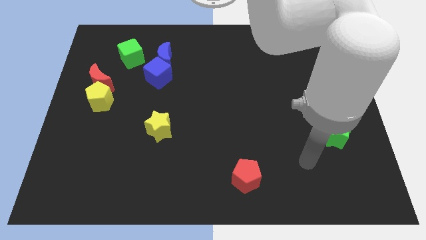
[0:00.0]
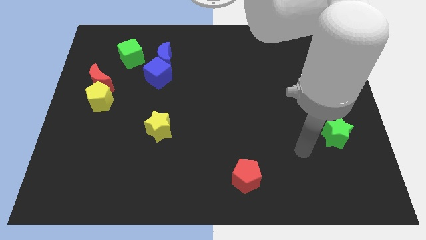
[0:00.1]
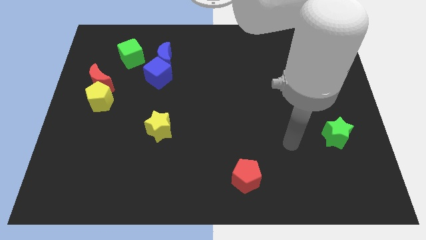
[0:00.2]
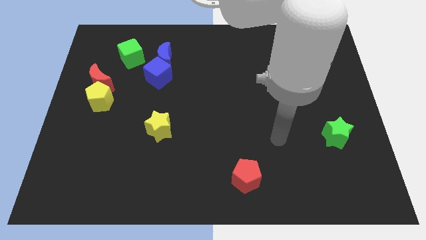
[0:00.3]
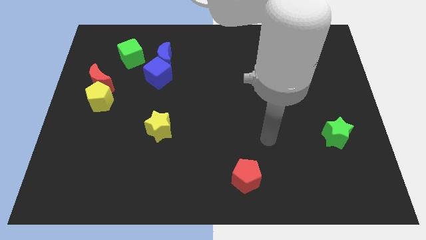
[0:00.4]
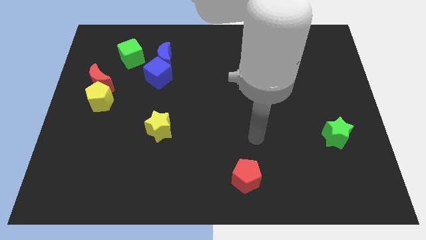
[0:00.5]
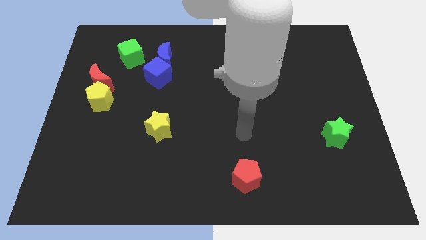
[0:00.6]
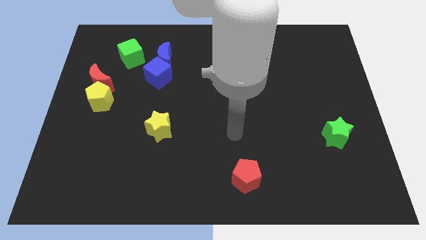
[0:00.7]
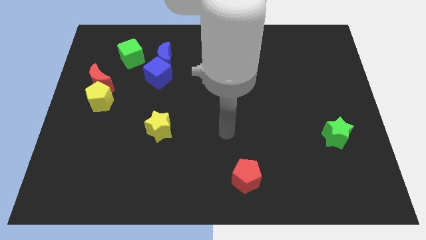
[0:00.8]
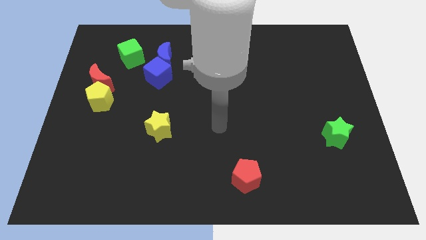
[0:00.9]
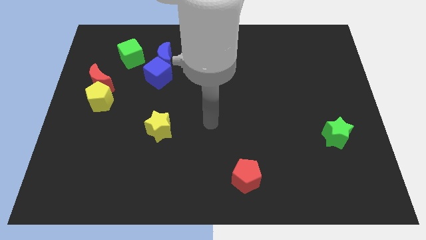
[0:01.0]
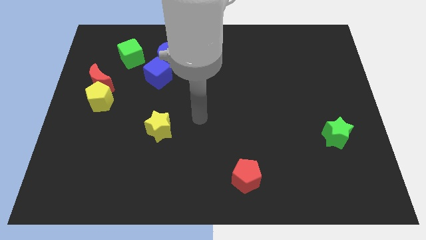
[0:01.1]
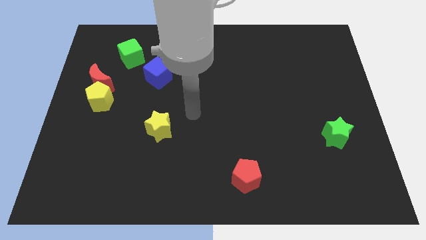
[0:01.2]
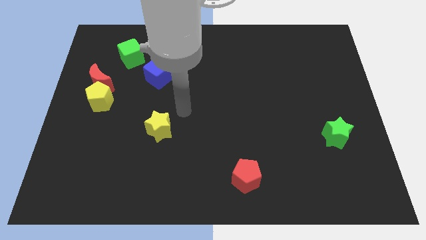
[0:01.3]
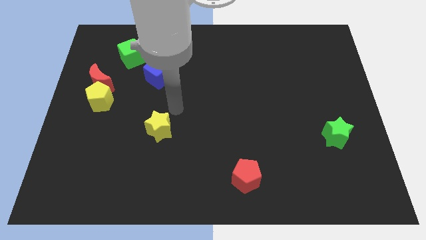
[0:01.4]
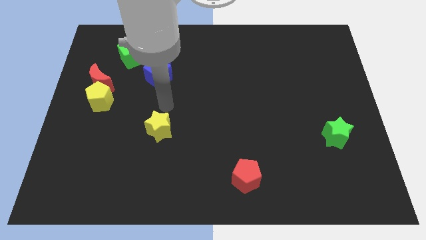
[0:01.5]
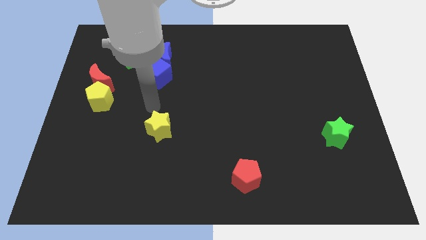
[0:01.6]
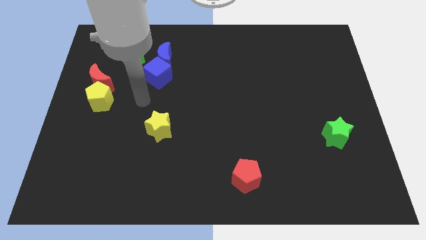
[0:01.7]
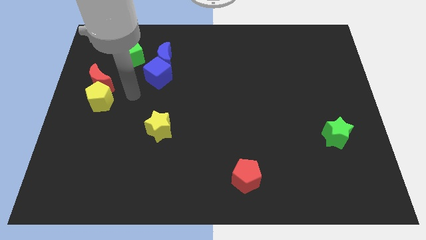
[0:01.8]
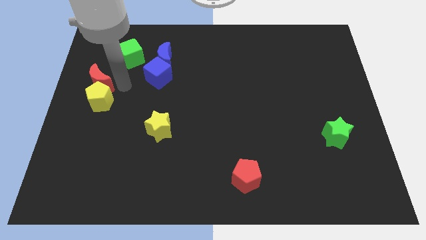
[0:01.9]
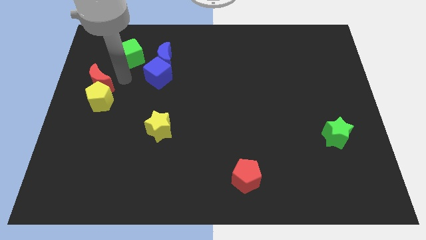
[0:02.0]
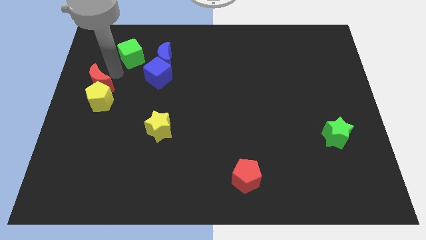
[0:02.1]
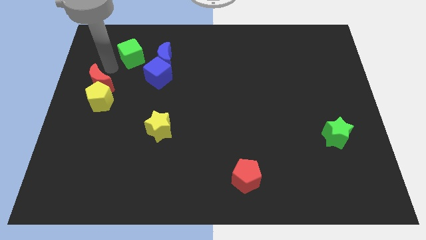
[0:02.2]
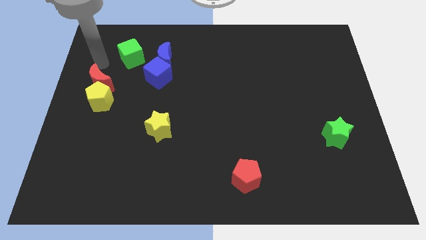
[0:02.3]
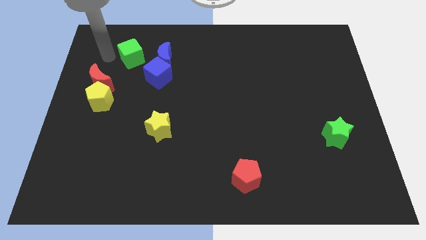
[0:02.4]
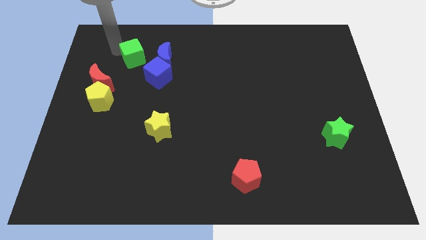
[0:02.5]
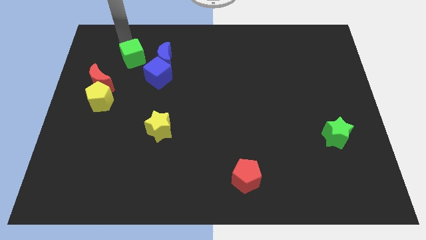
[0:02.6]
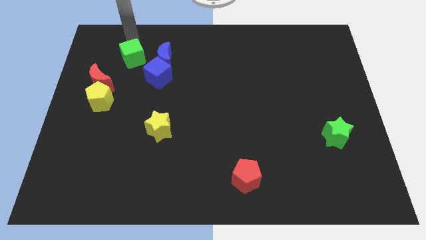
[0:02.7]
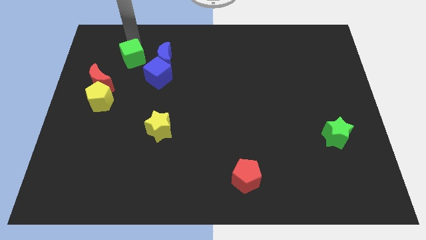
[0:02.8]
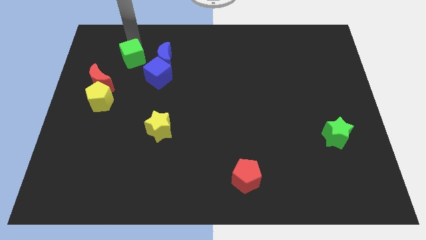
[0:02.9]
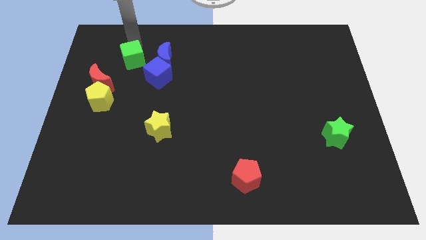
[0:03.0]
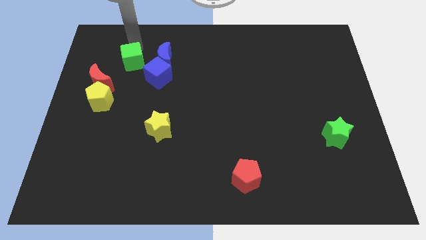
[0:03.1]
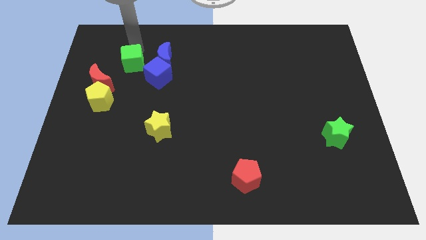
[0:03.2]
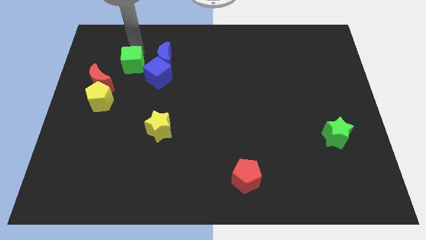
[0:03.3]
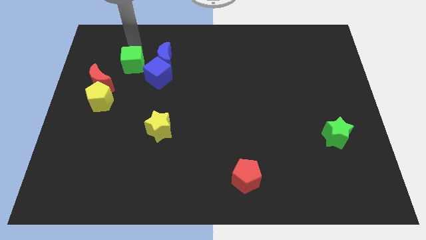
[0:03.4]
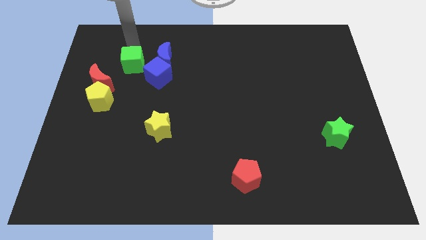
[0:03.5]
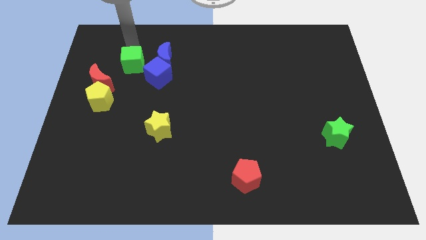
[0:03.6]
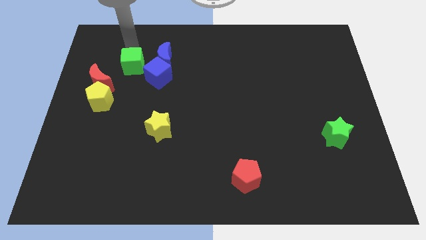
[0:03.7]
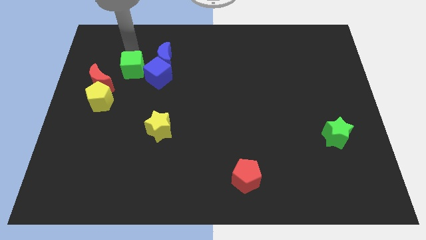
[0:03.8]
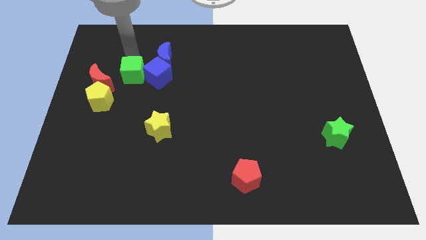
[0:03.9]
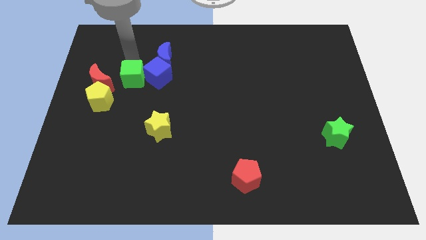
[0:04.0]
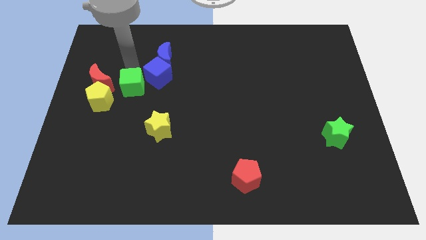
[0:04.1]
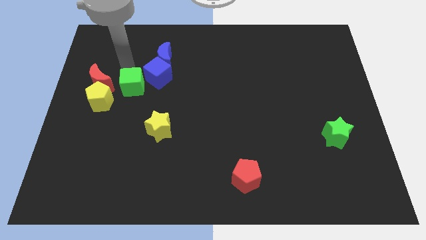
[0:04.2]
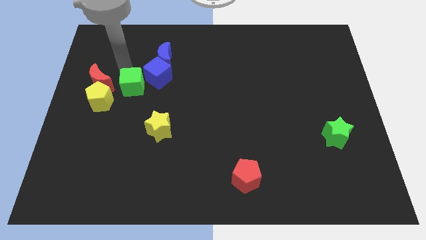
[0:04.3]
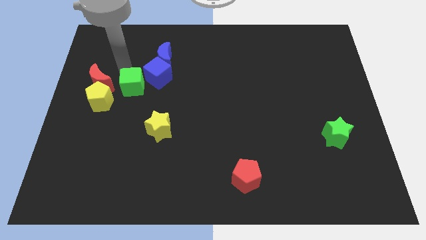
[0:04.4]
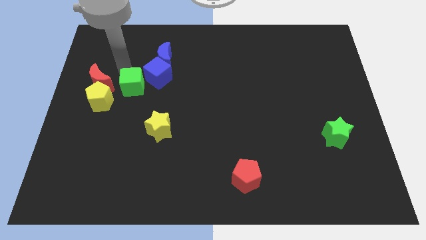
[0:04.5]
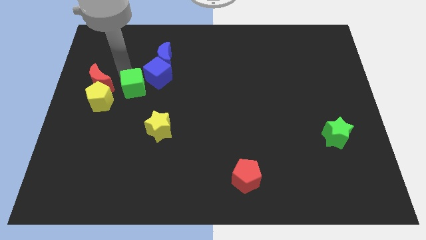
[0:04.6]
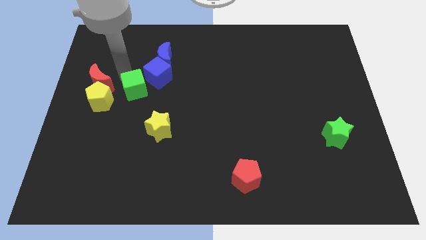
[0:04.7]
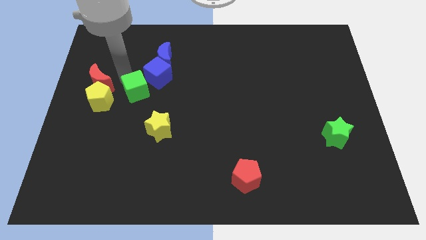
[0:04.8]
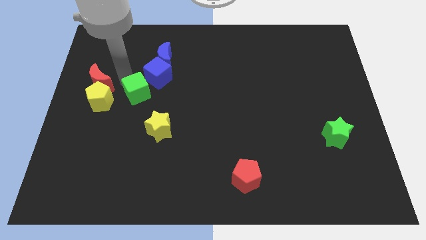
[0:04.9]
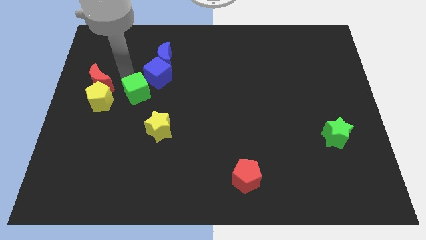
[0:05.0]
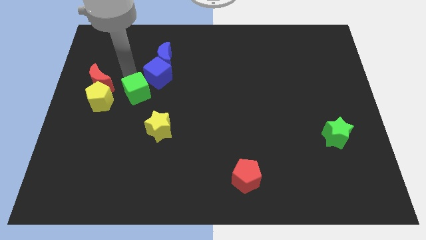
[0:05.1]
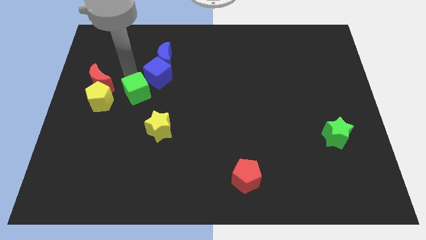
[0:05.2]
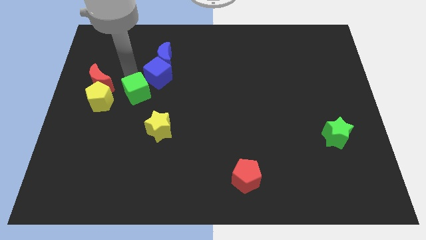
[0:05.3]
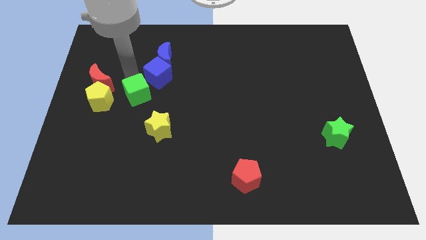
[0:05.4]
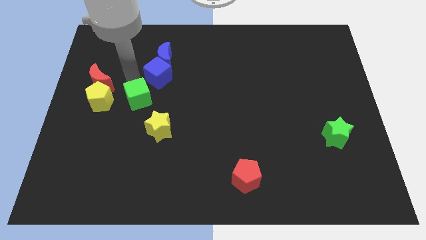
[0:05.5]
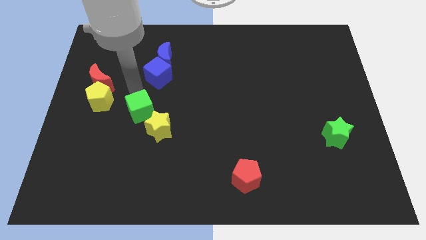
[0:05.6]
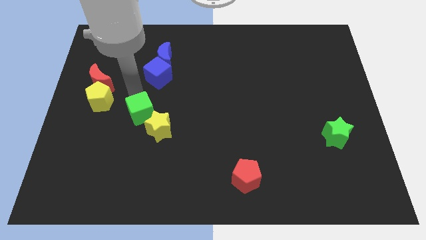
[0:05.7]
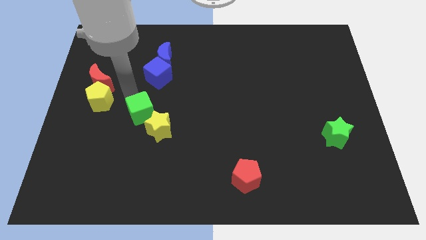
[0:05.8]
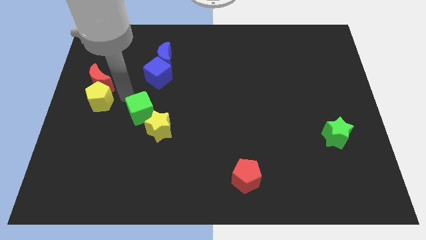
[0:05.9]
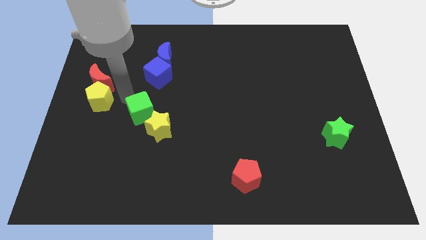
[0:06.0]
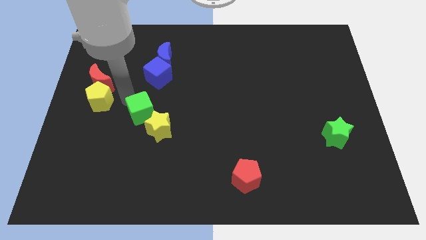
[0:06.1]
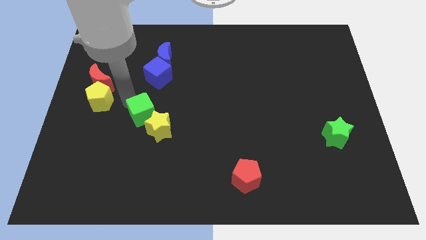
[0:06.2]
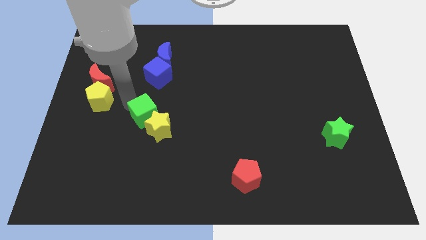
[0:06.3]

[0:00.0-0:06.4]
put the green cube towards the yellow star
